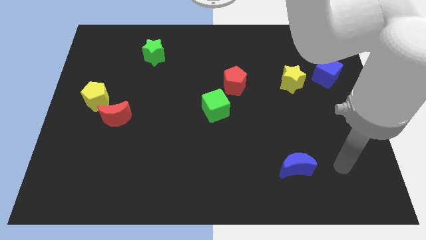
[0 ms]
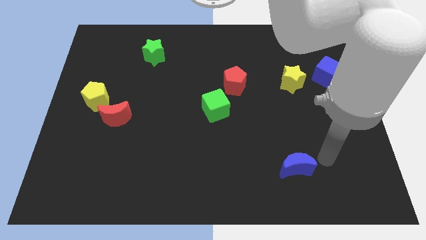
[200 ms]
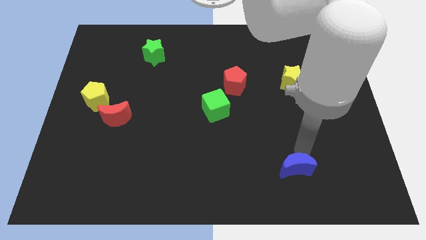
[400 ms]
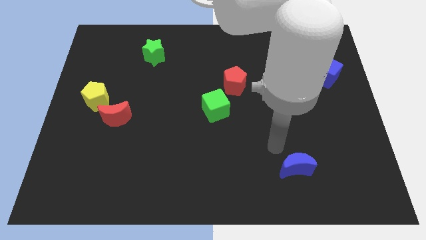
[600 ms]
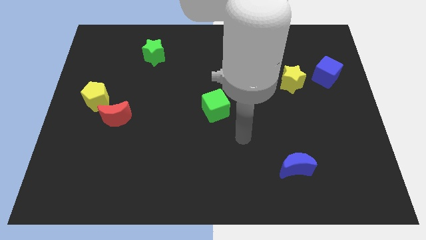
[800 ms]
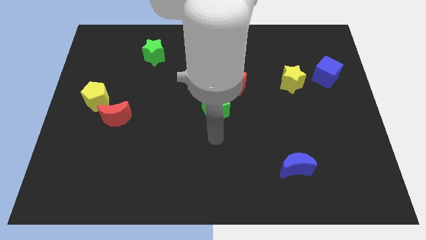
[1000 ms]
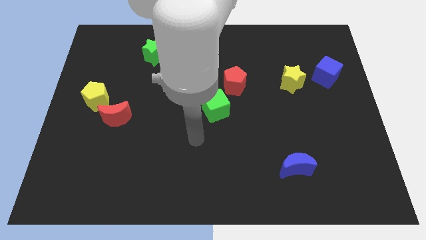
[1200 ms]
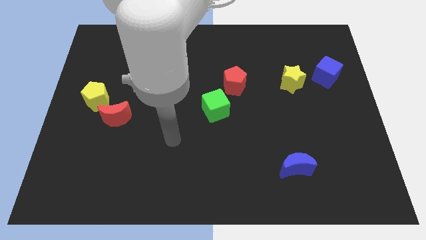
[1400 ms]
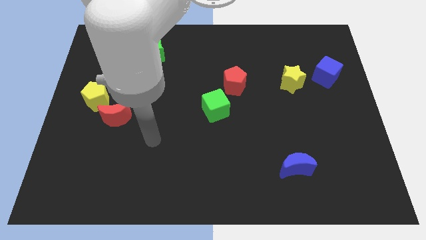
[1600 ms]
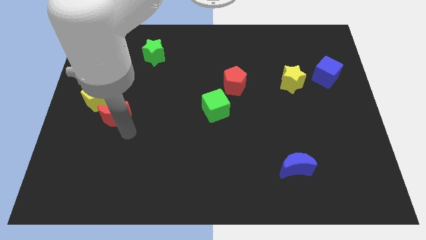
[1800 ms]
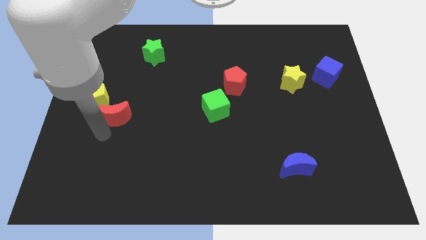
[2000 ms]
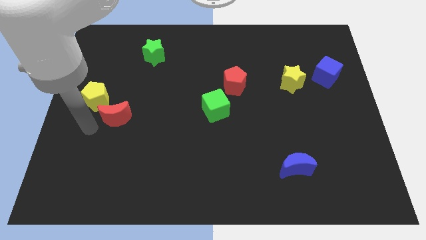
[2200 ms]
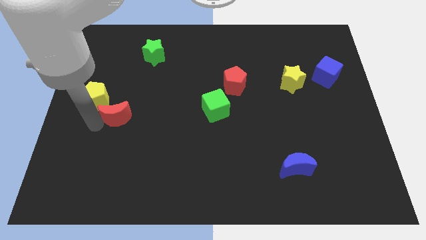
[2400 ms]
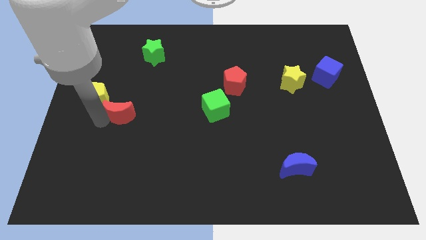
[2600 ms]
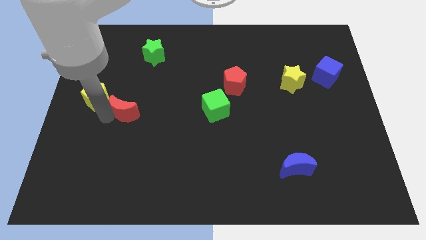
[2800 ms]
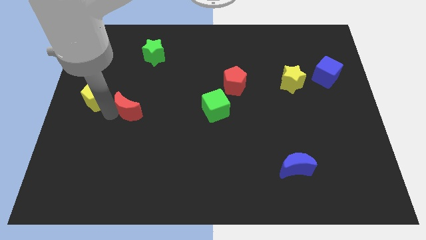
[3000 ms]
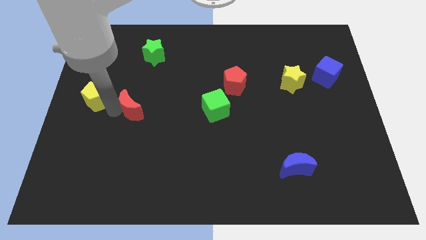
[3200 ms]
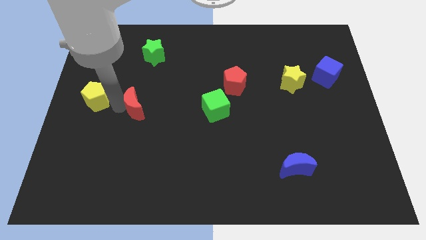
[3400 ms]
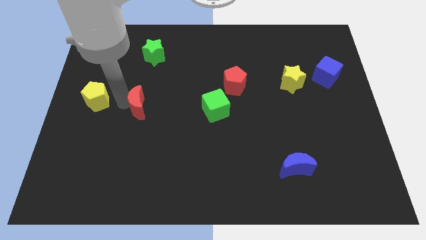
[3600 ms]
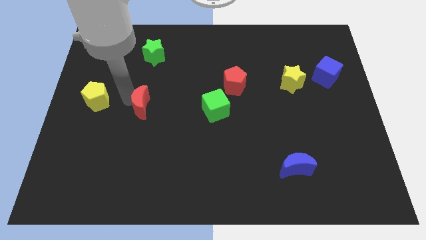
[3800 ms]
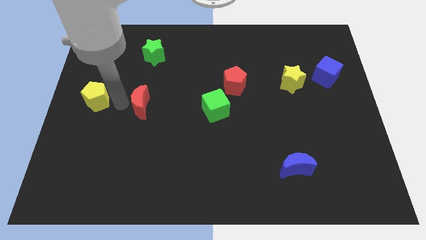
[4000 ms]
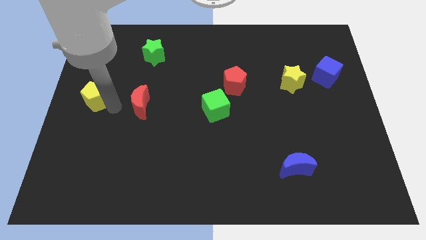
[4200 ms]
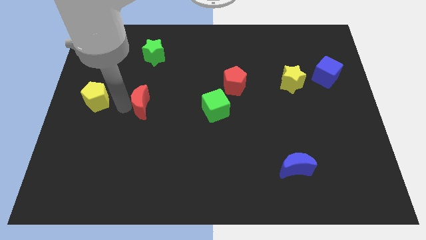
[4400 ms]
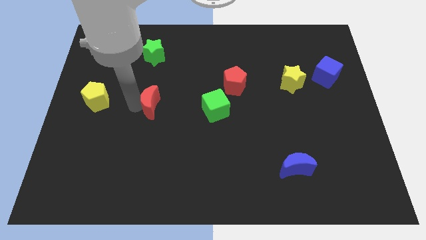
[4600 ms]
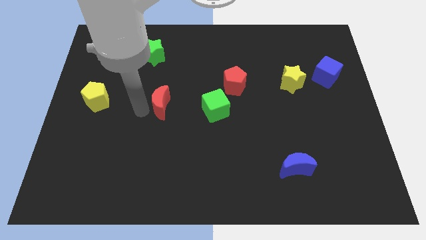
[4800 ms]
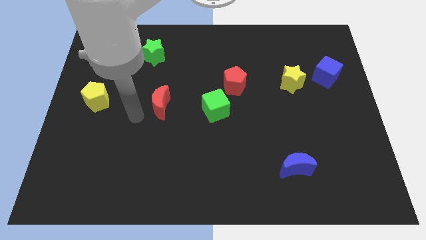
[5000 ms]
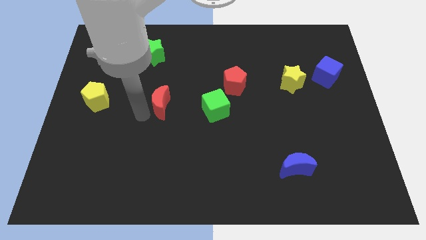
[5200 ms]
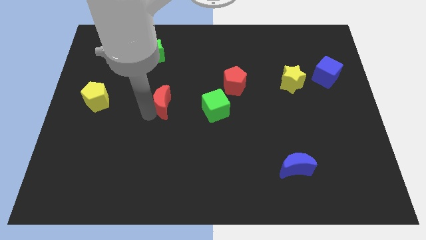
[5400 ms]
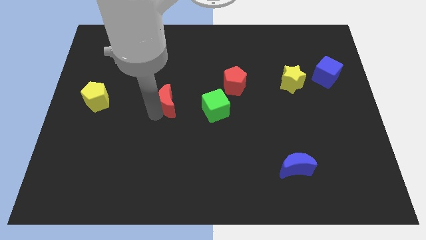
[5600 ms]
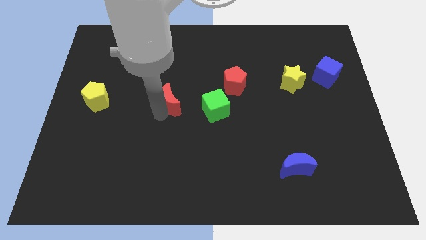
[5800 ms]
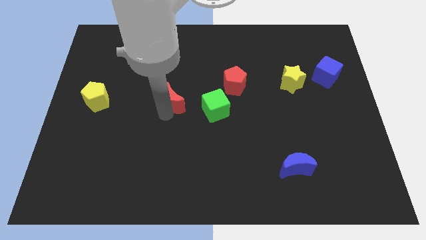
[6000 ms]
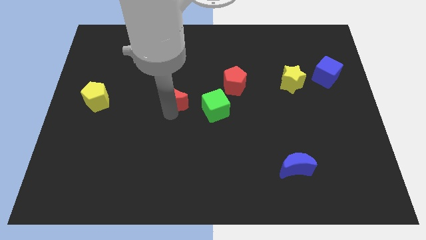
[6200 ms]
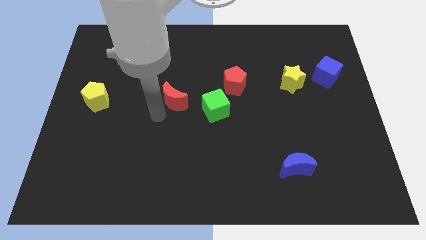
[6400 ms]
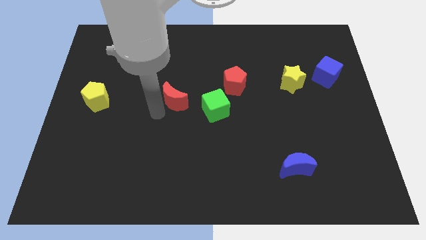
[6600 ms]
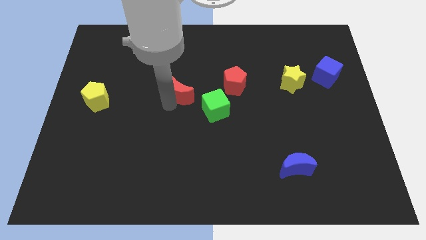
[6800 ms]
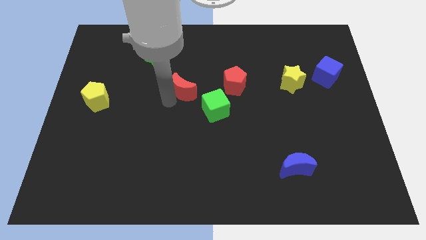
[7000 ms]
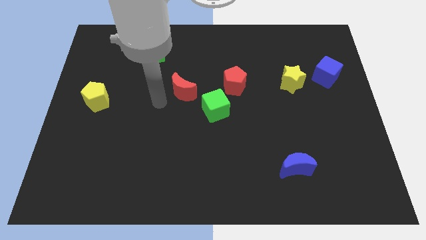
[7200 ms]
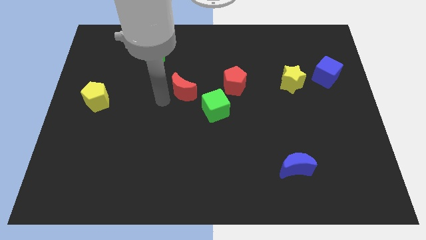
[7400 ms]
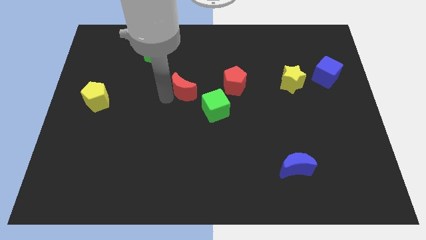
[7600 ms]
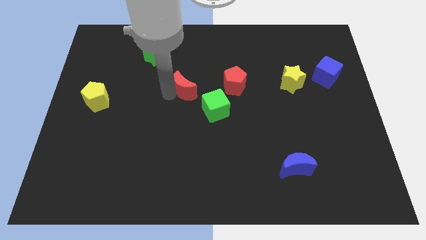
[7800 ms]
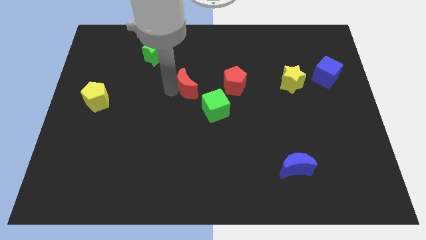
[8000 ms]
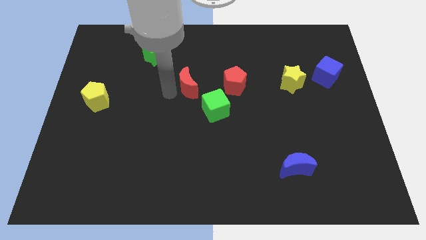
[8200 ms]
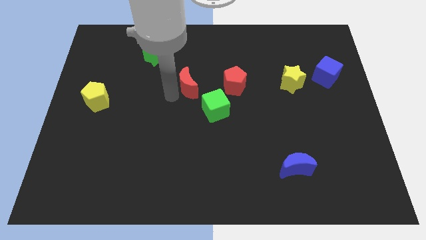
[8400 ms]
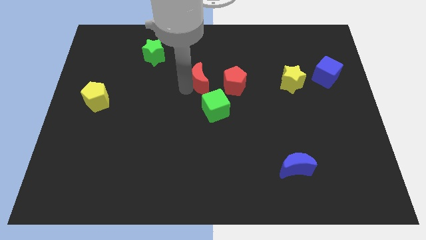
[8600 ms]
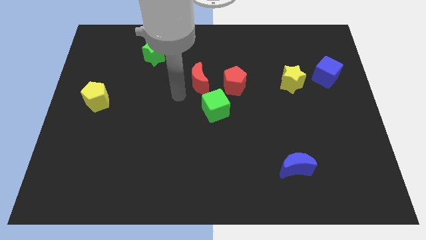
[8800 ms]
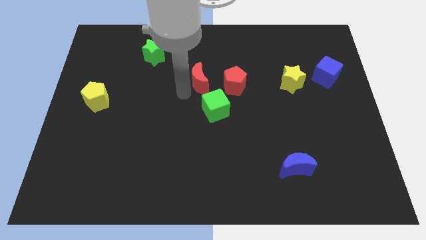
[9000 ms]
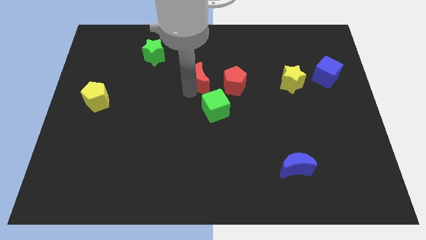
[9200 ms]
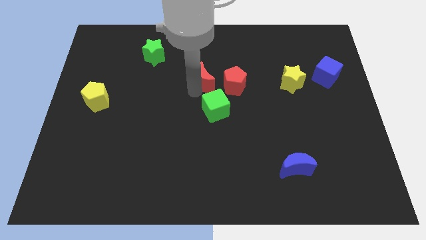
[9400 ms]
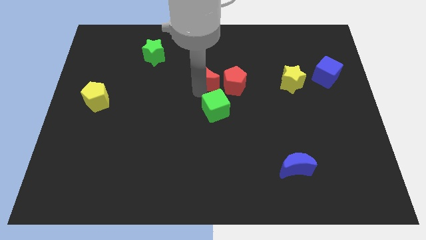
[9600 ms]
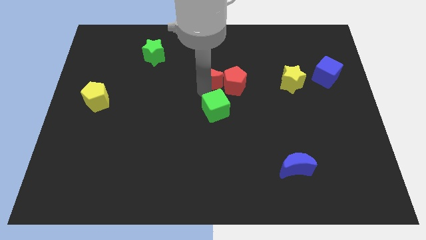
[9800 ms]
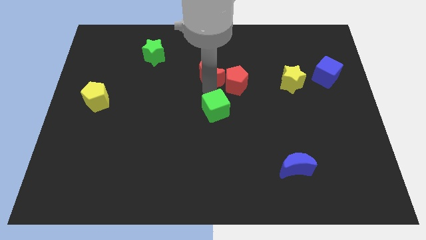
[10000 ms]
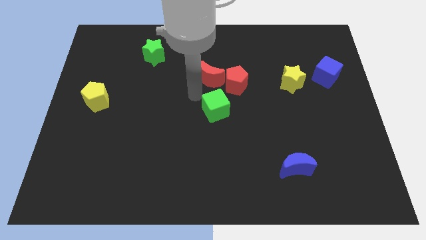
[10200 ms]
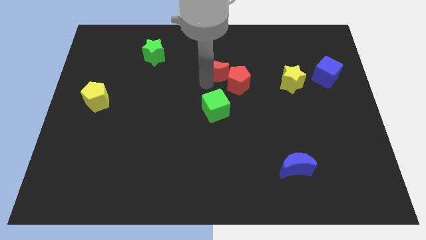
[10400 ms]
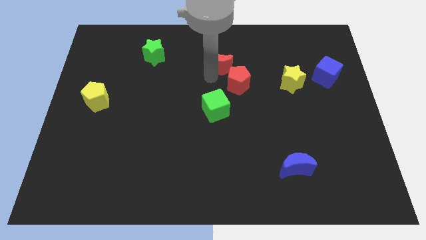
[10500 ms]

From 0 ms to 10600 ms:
slide the red moon to the top side of the red pentagon

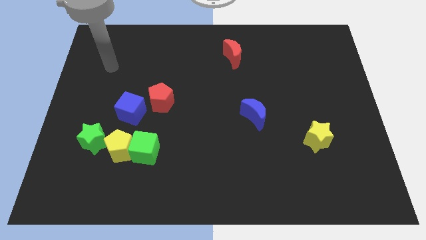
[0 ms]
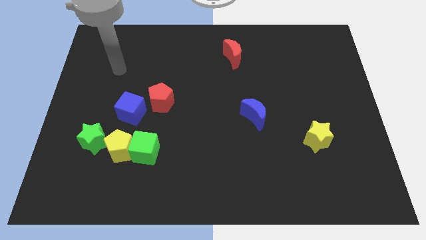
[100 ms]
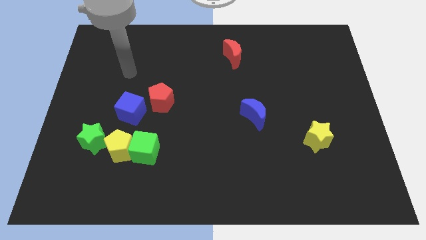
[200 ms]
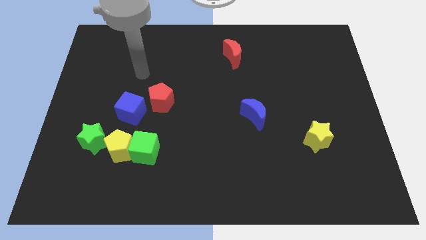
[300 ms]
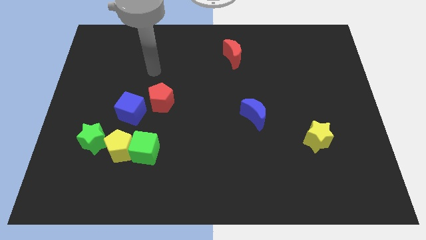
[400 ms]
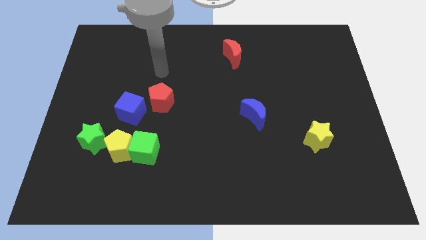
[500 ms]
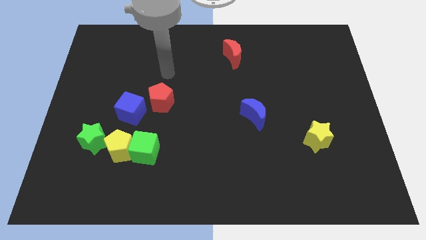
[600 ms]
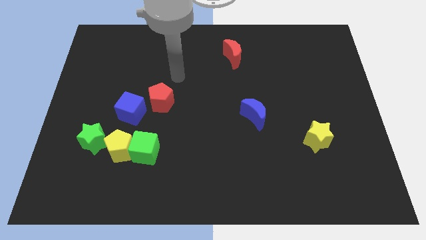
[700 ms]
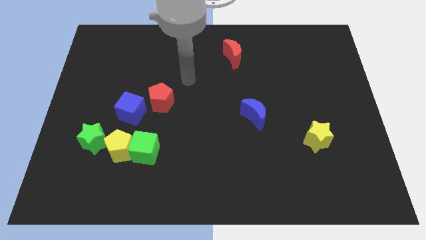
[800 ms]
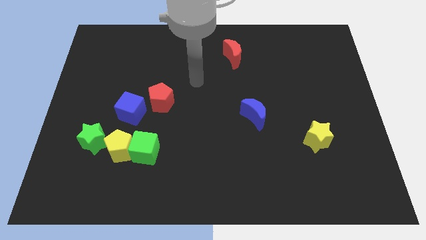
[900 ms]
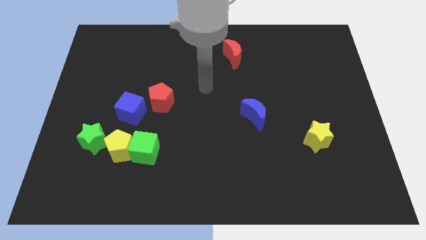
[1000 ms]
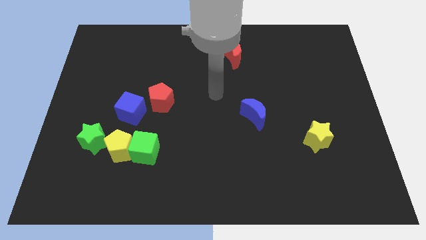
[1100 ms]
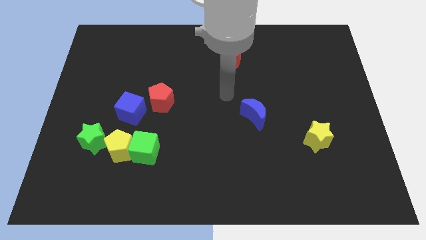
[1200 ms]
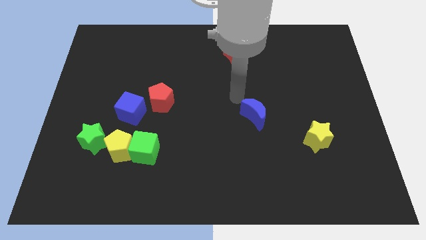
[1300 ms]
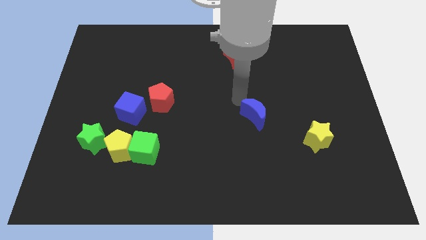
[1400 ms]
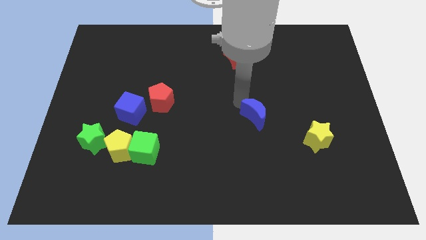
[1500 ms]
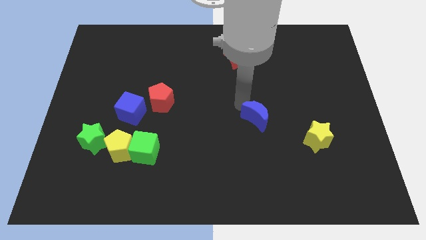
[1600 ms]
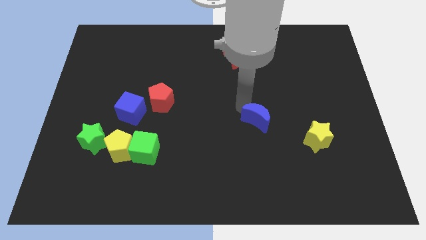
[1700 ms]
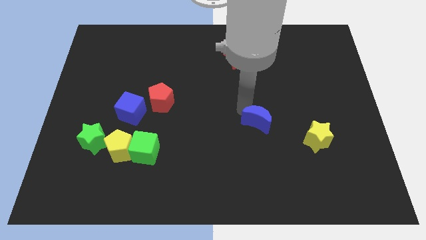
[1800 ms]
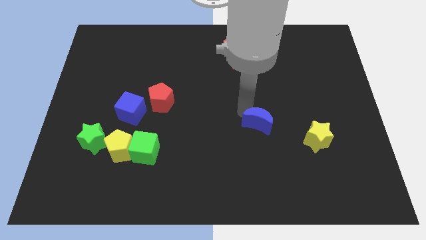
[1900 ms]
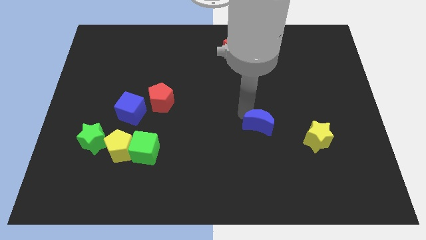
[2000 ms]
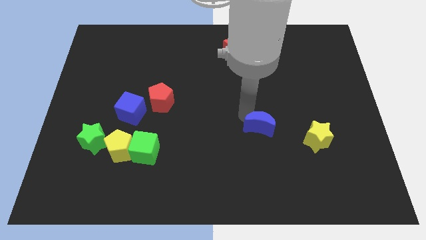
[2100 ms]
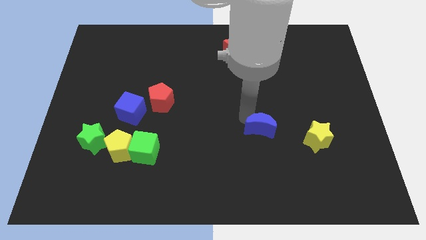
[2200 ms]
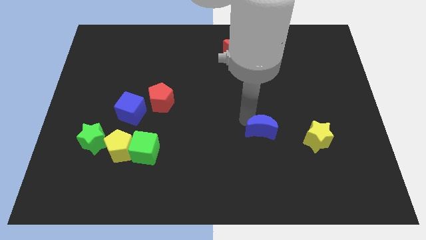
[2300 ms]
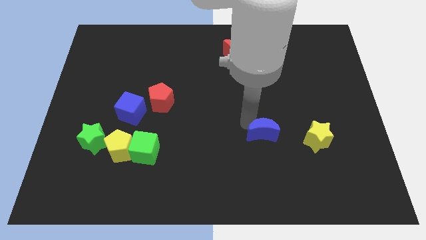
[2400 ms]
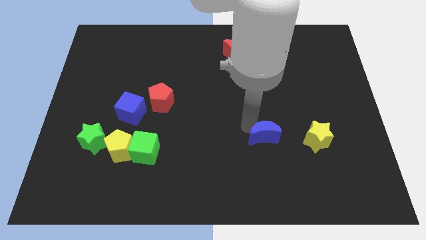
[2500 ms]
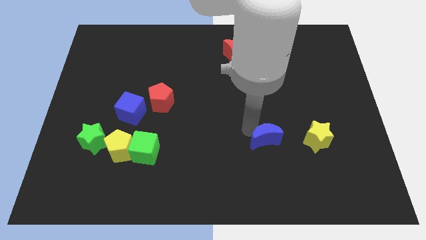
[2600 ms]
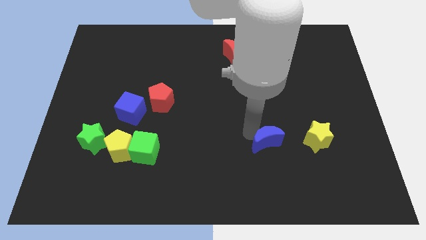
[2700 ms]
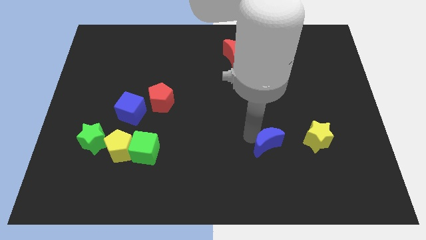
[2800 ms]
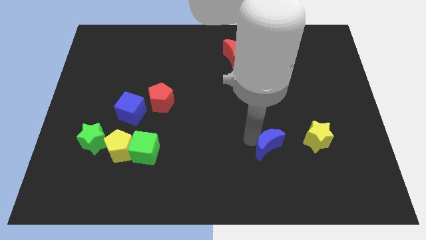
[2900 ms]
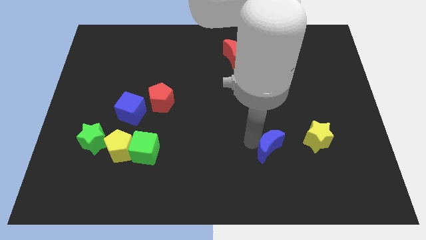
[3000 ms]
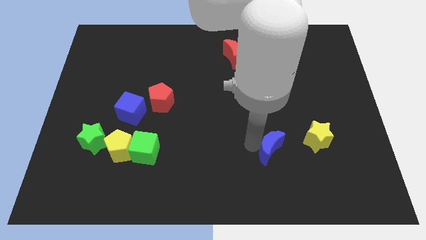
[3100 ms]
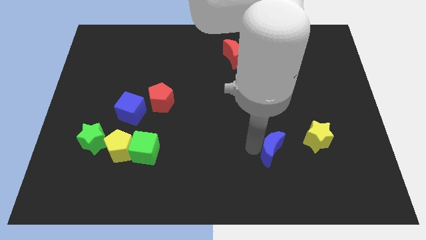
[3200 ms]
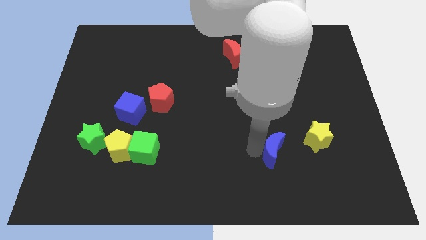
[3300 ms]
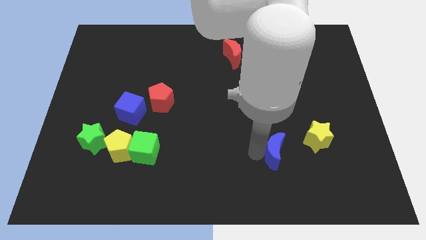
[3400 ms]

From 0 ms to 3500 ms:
put the blue moon to the bottom left side of the yellow star
